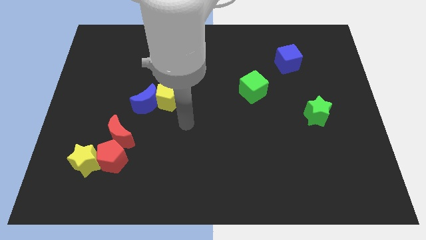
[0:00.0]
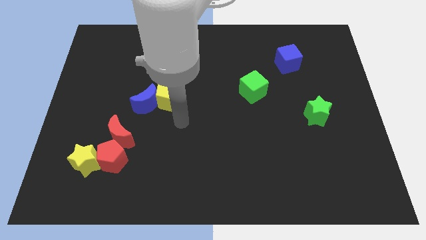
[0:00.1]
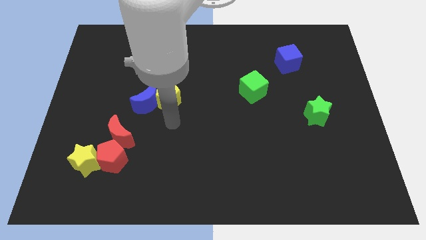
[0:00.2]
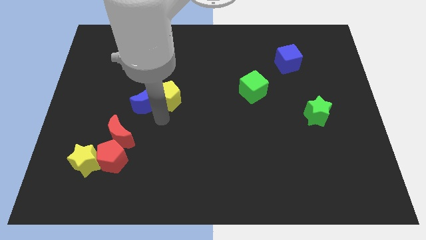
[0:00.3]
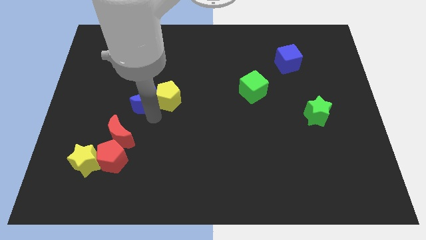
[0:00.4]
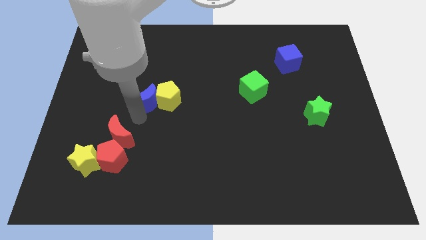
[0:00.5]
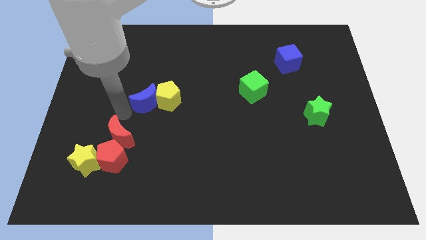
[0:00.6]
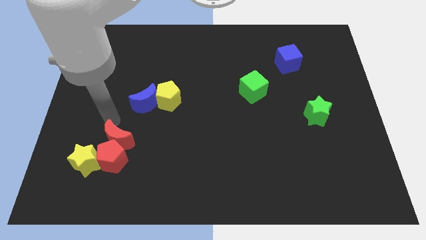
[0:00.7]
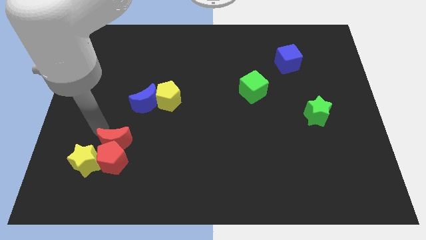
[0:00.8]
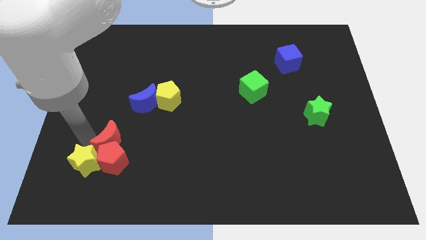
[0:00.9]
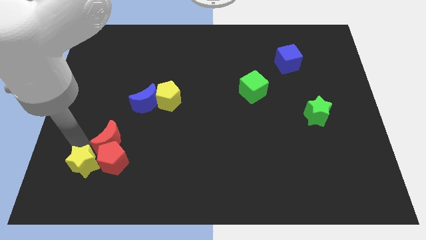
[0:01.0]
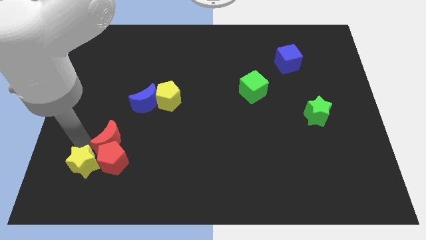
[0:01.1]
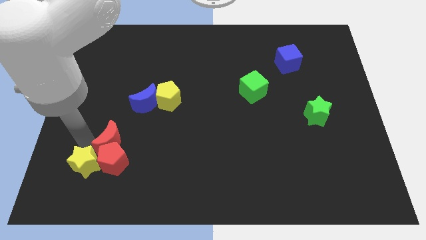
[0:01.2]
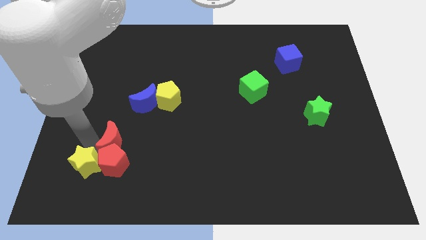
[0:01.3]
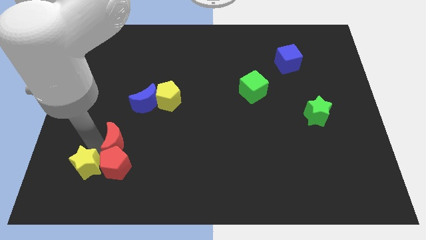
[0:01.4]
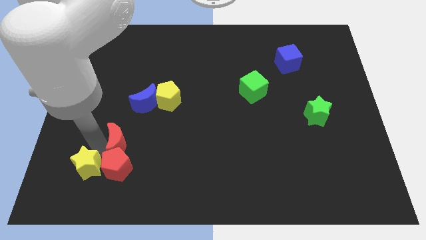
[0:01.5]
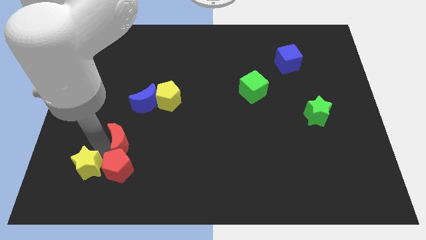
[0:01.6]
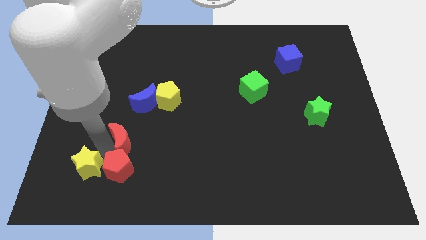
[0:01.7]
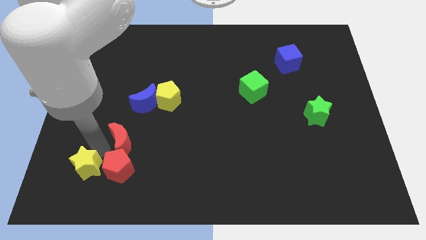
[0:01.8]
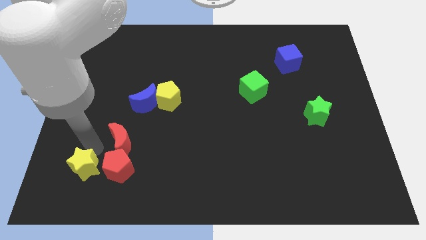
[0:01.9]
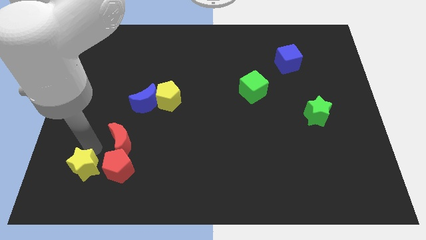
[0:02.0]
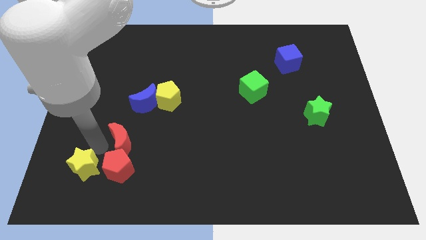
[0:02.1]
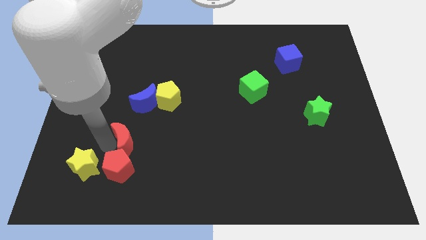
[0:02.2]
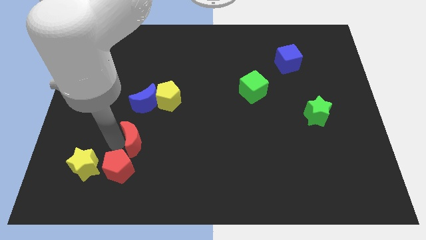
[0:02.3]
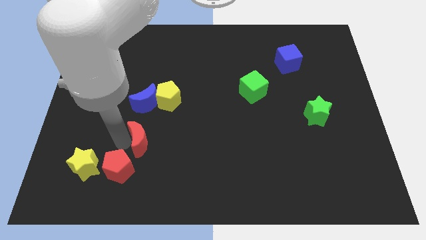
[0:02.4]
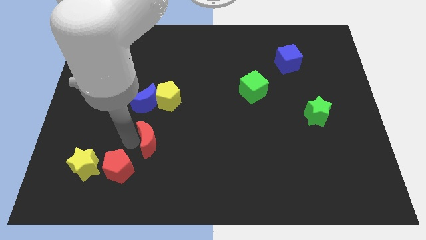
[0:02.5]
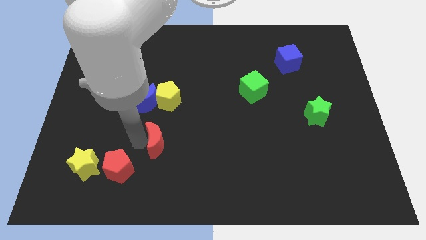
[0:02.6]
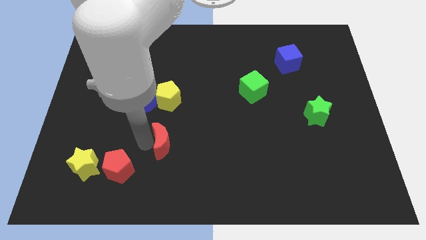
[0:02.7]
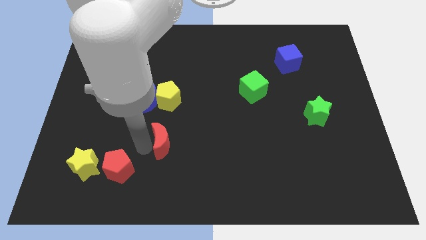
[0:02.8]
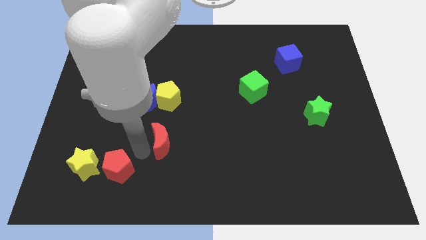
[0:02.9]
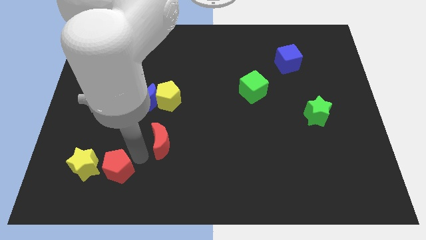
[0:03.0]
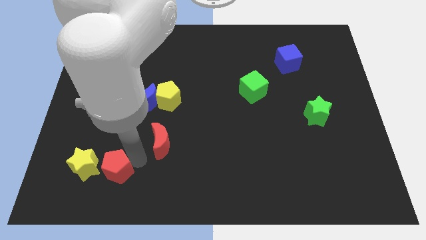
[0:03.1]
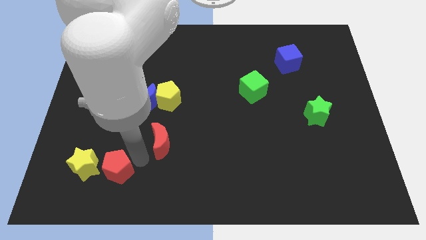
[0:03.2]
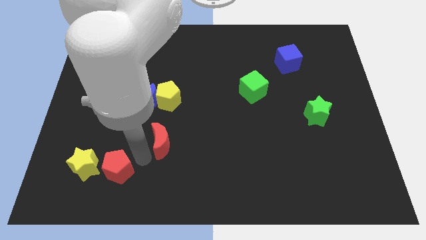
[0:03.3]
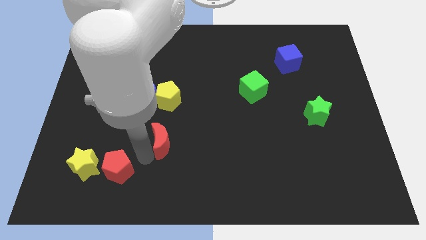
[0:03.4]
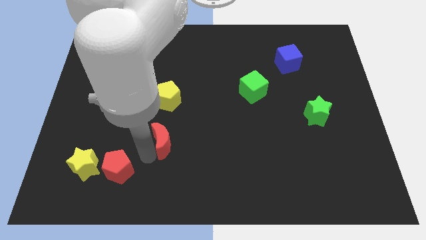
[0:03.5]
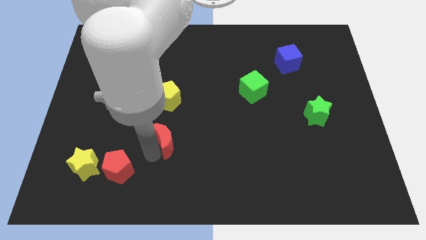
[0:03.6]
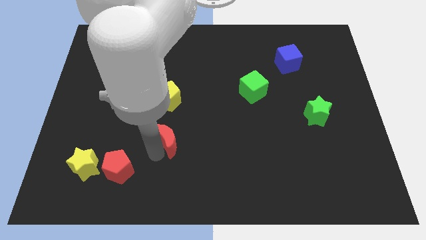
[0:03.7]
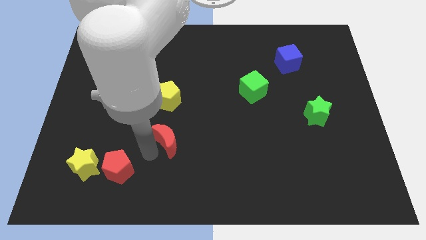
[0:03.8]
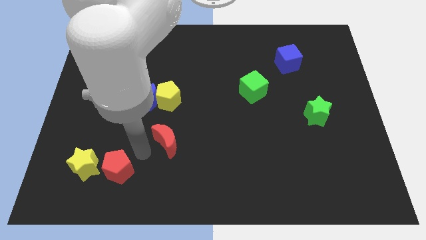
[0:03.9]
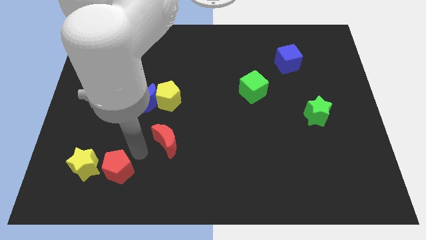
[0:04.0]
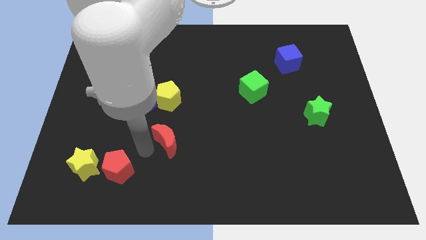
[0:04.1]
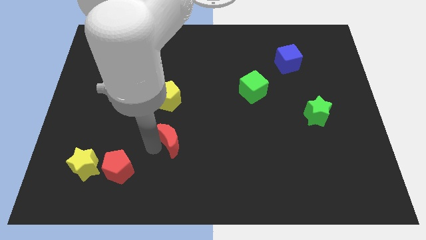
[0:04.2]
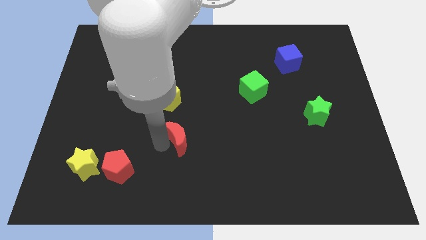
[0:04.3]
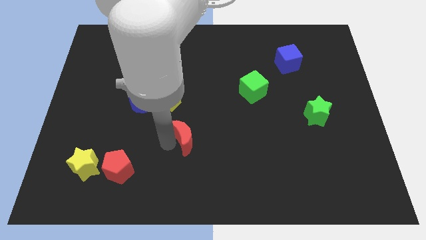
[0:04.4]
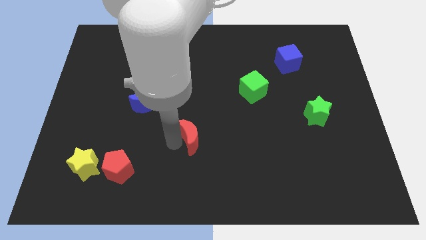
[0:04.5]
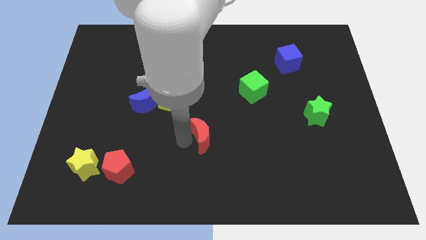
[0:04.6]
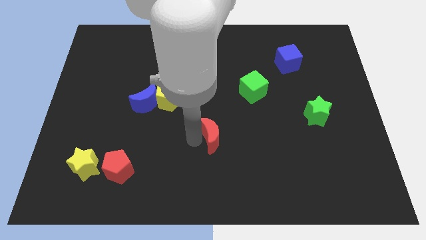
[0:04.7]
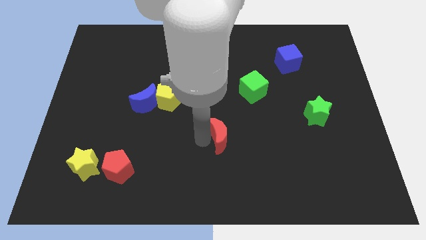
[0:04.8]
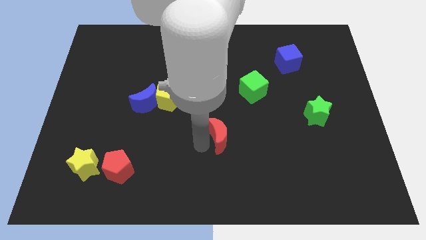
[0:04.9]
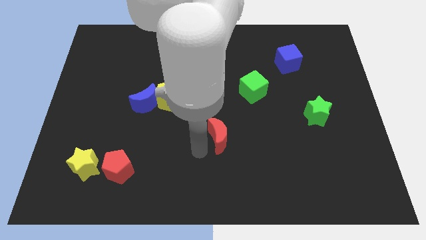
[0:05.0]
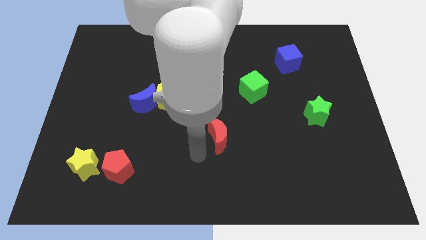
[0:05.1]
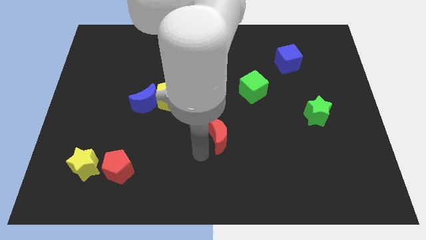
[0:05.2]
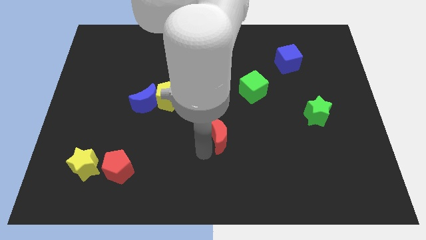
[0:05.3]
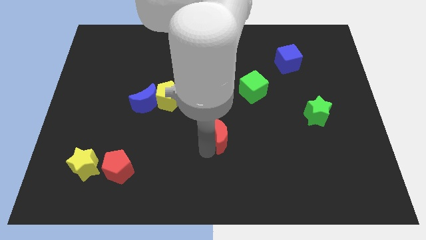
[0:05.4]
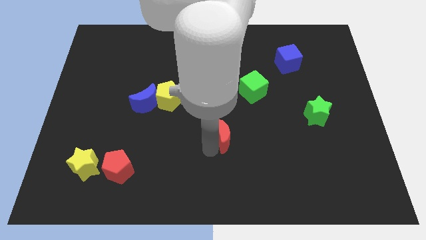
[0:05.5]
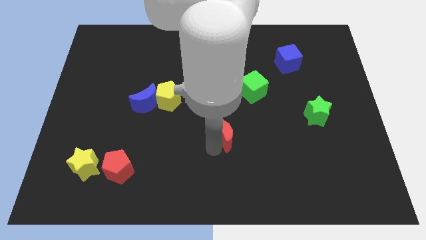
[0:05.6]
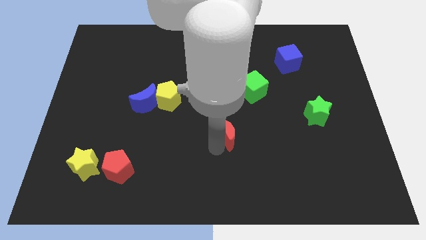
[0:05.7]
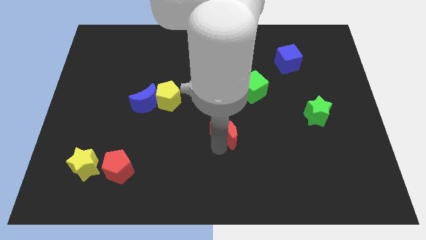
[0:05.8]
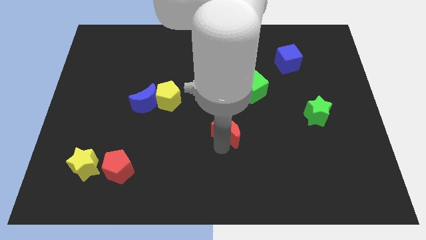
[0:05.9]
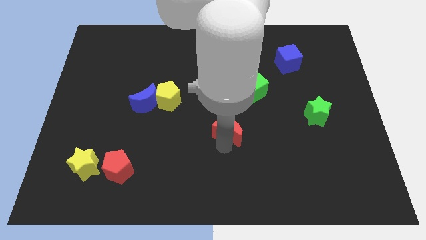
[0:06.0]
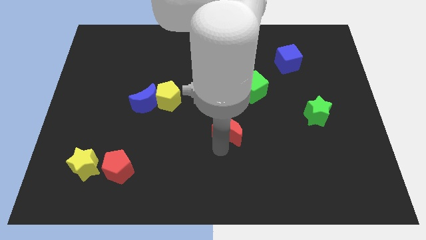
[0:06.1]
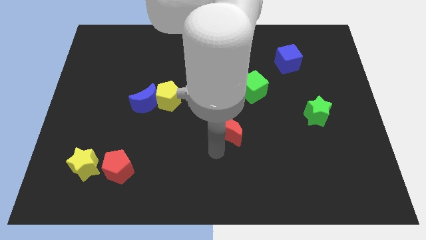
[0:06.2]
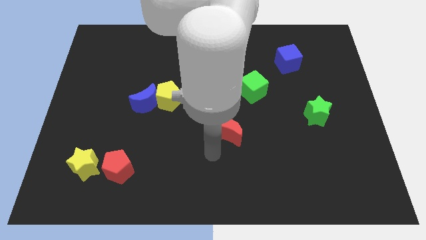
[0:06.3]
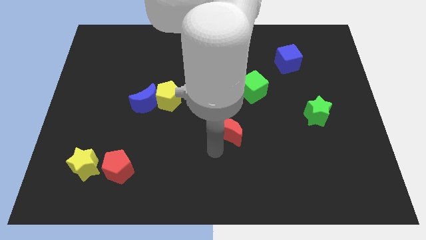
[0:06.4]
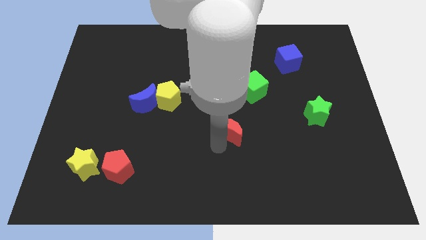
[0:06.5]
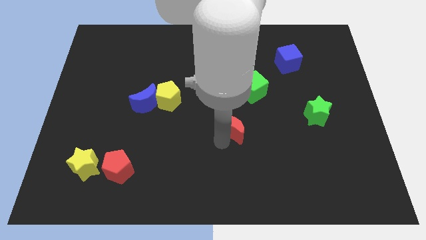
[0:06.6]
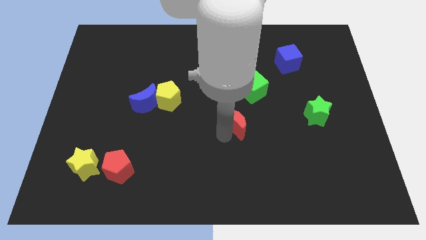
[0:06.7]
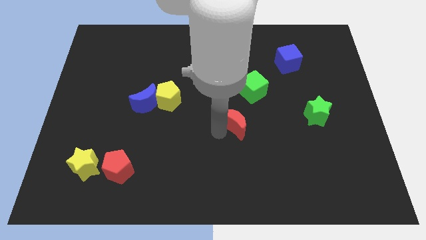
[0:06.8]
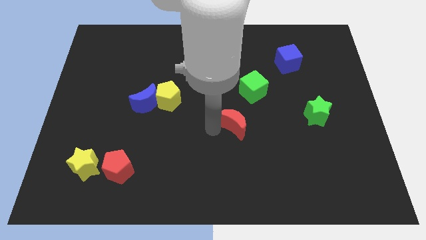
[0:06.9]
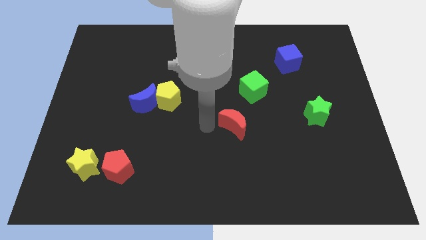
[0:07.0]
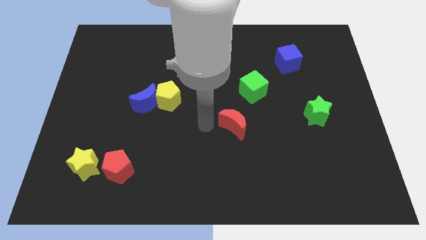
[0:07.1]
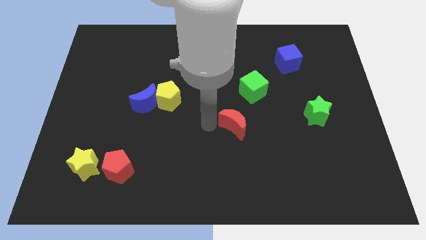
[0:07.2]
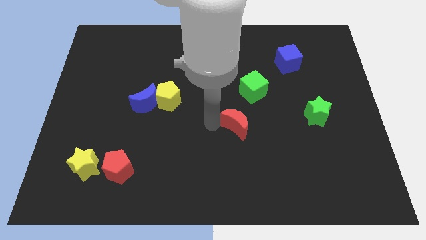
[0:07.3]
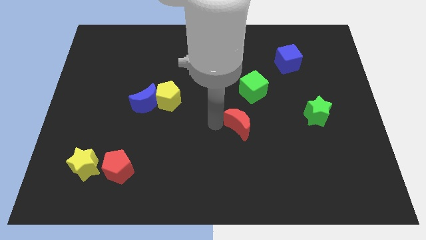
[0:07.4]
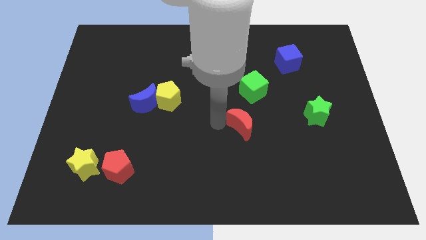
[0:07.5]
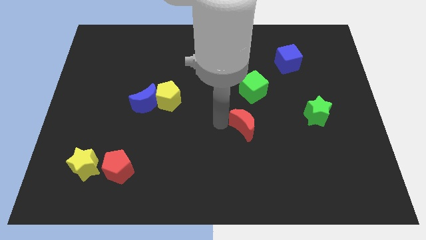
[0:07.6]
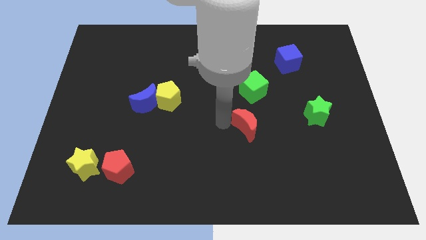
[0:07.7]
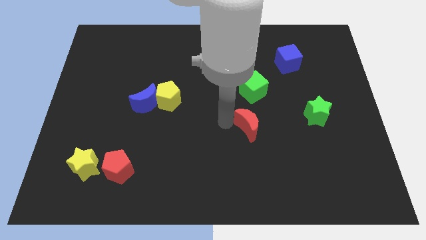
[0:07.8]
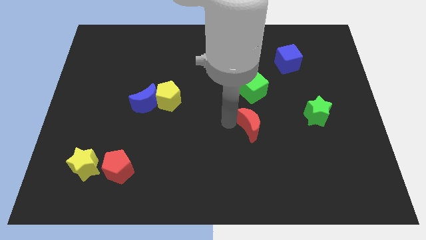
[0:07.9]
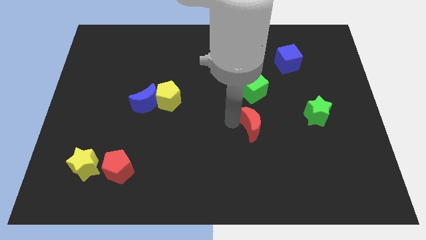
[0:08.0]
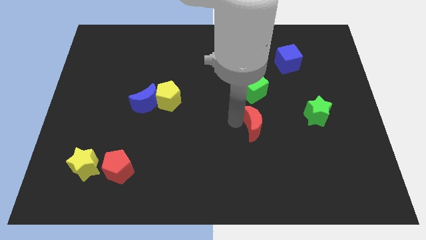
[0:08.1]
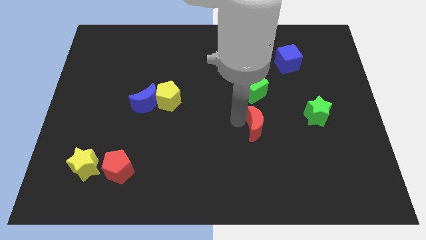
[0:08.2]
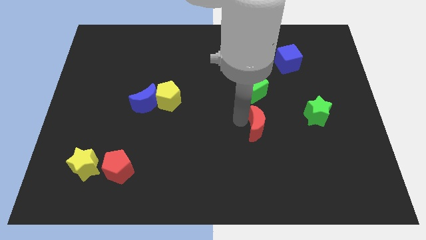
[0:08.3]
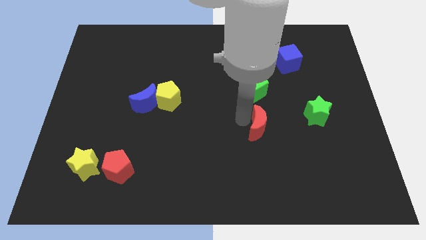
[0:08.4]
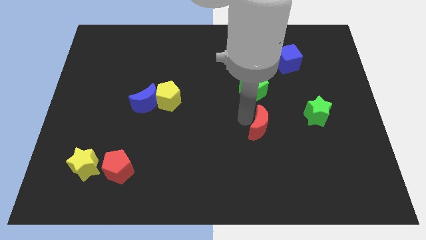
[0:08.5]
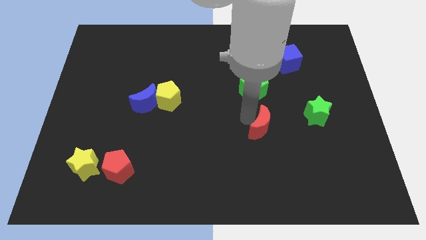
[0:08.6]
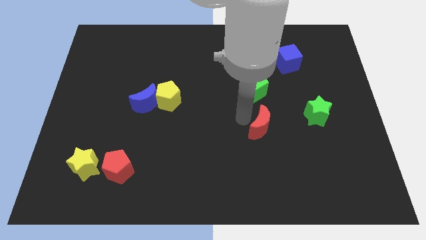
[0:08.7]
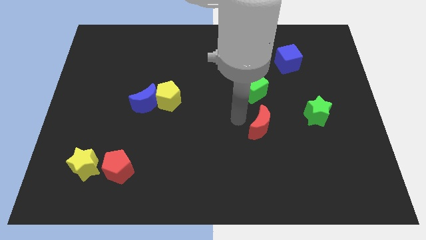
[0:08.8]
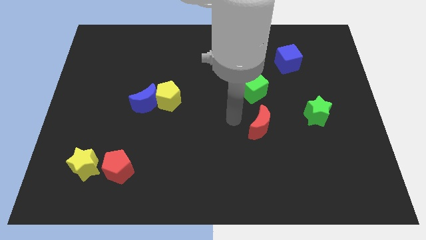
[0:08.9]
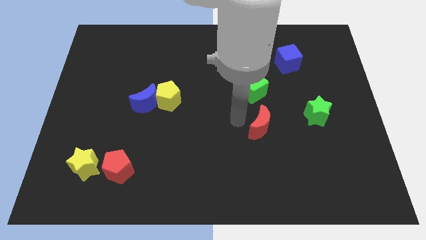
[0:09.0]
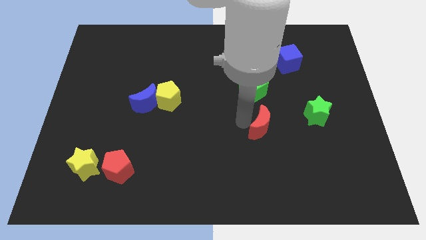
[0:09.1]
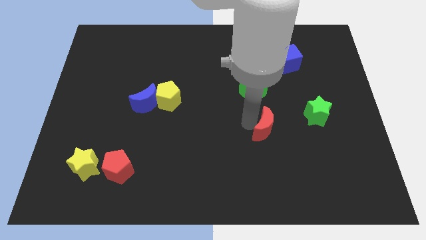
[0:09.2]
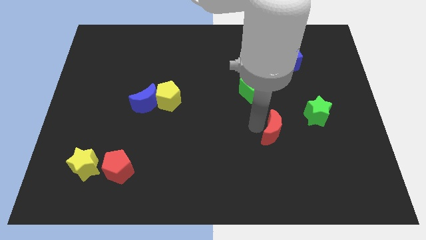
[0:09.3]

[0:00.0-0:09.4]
move the red moon to the bottom left of the green star
